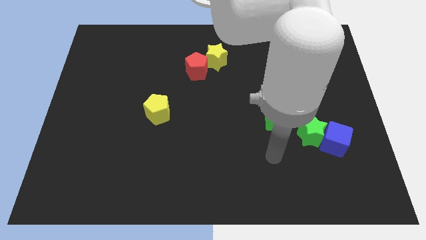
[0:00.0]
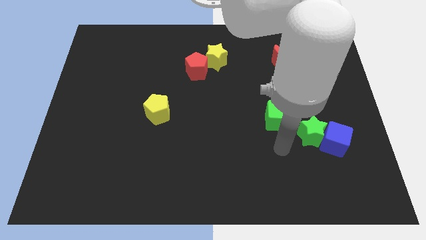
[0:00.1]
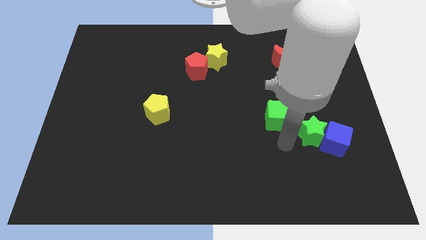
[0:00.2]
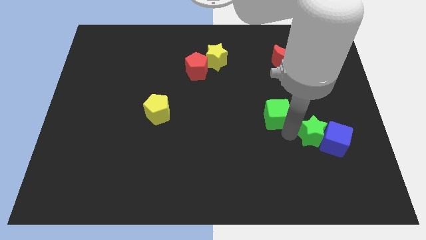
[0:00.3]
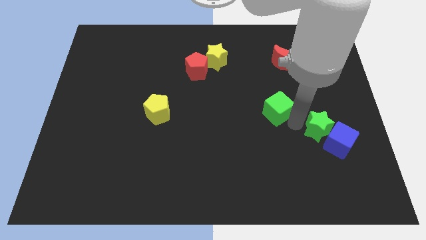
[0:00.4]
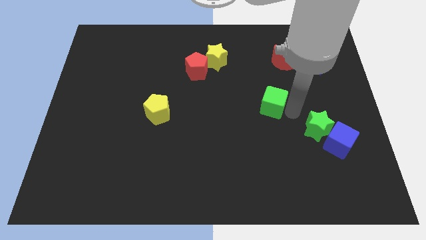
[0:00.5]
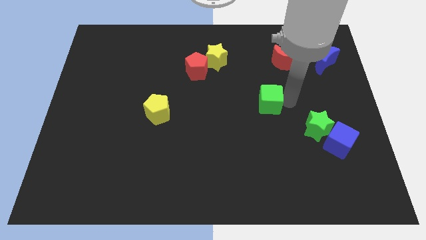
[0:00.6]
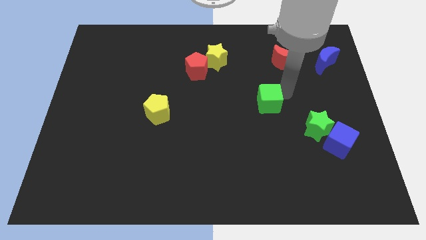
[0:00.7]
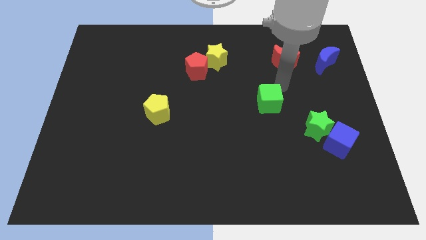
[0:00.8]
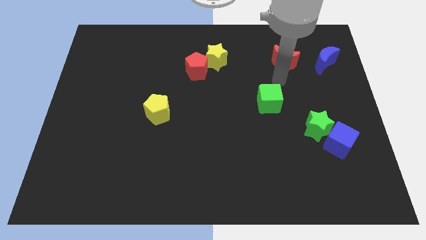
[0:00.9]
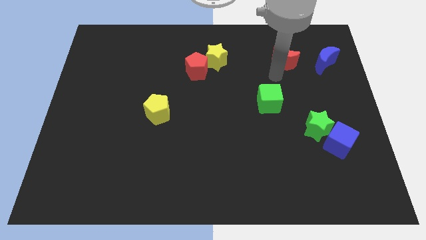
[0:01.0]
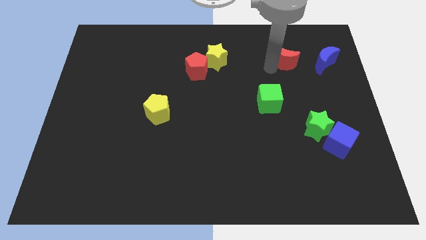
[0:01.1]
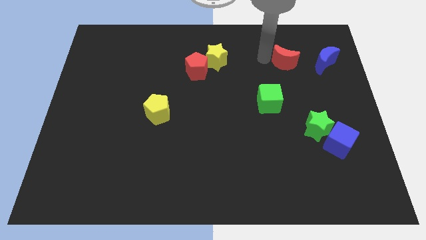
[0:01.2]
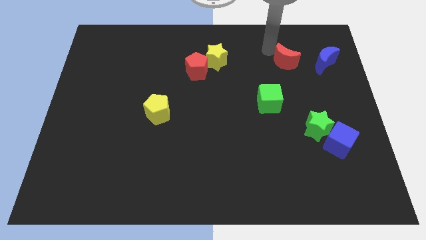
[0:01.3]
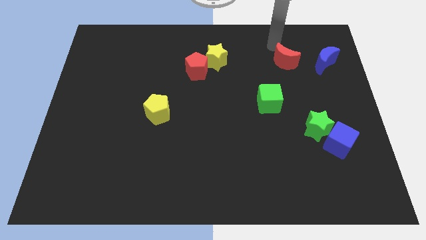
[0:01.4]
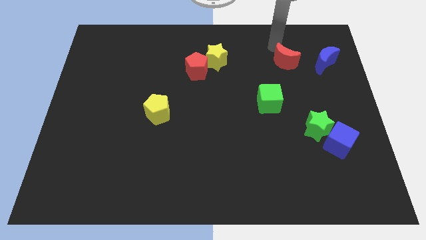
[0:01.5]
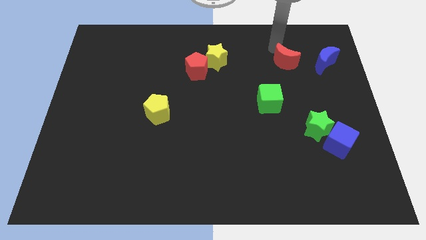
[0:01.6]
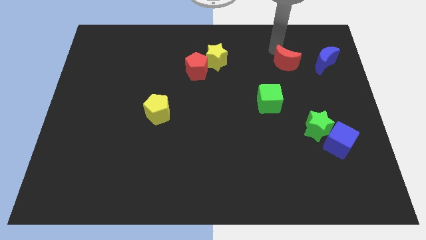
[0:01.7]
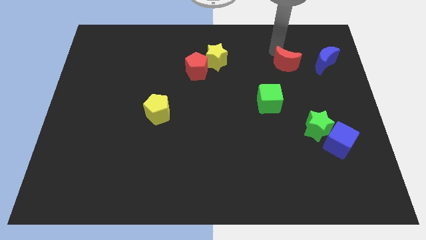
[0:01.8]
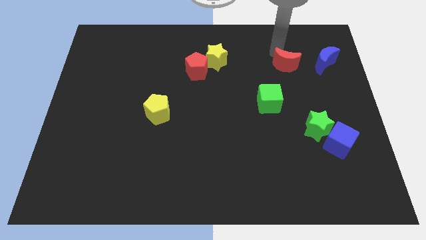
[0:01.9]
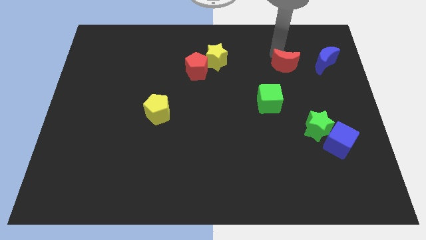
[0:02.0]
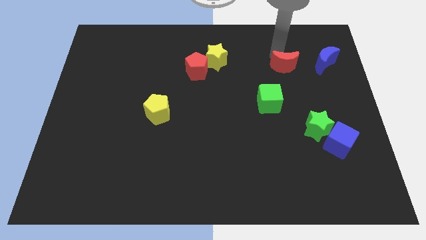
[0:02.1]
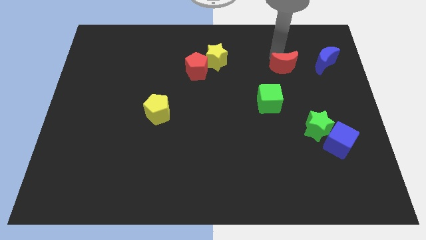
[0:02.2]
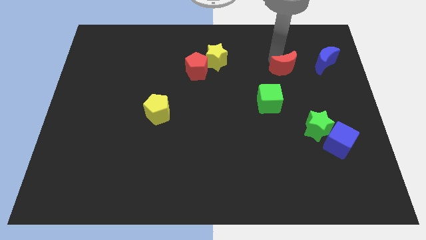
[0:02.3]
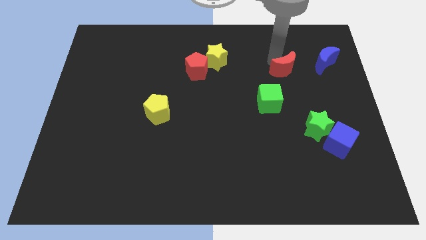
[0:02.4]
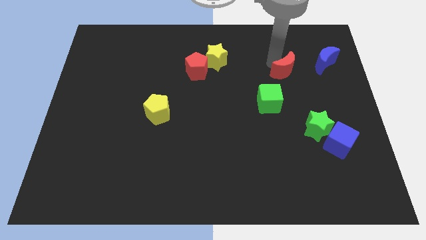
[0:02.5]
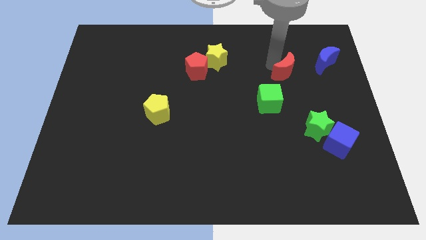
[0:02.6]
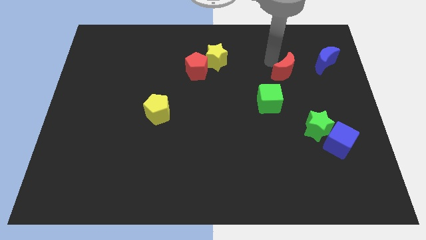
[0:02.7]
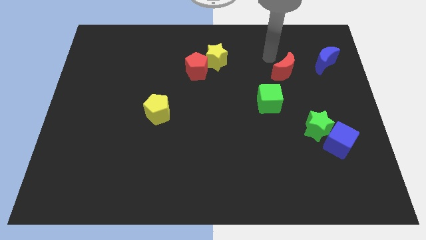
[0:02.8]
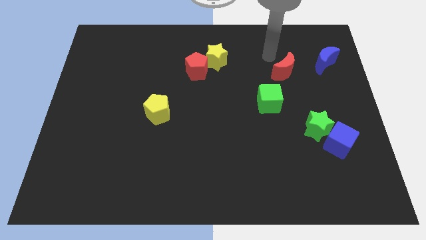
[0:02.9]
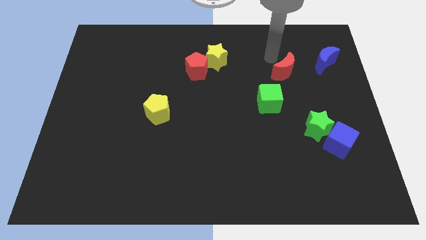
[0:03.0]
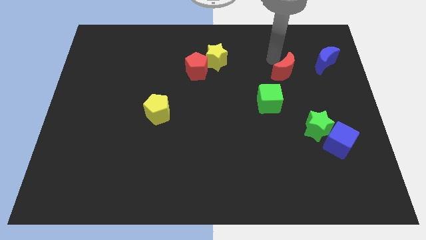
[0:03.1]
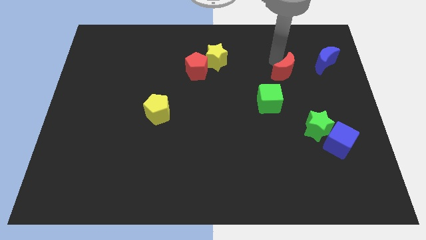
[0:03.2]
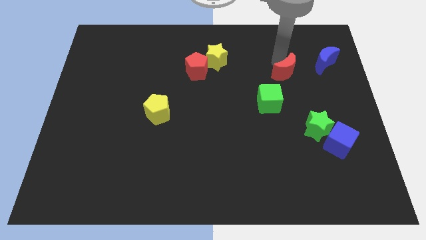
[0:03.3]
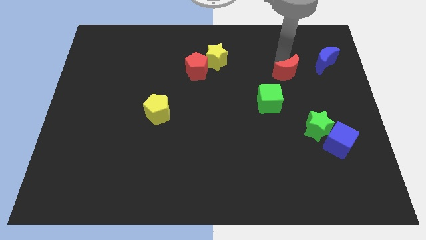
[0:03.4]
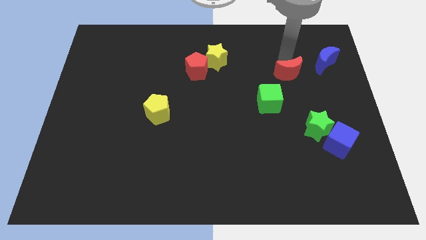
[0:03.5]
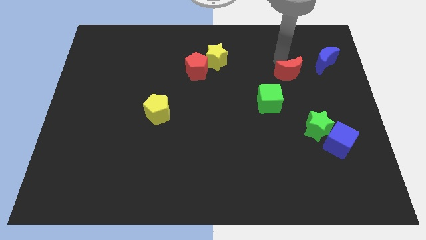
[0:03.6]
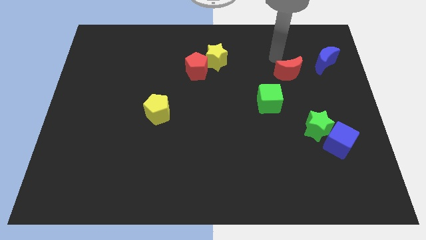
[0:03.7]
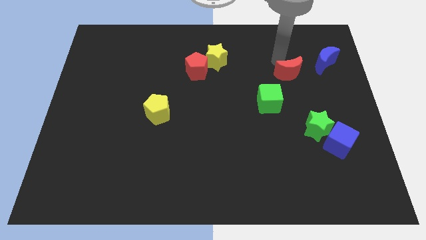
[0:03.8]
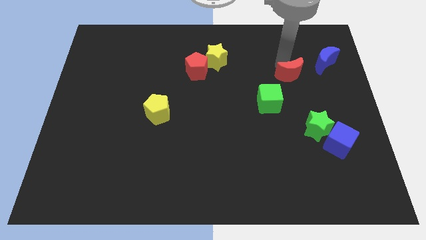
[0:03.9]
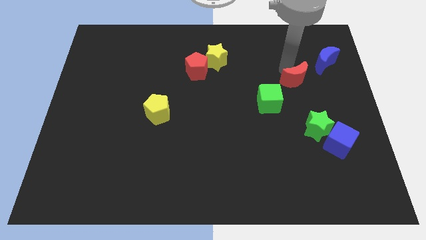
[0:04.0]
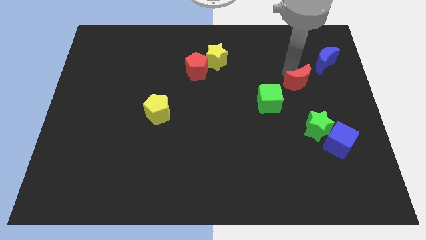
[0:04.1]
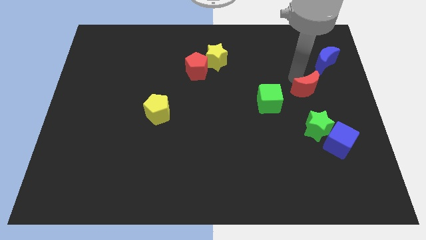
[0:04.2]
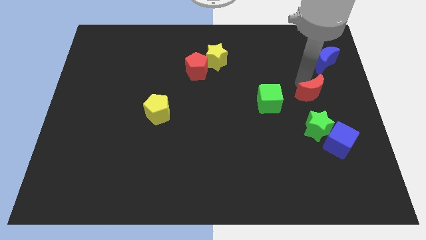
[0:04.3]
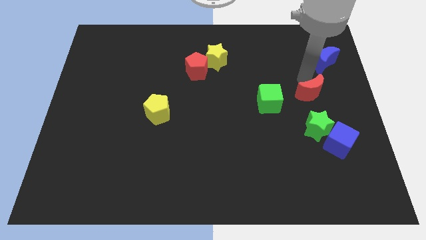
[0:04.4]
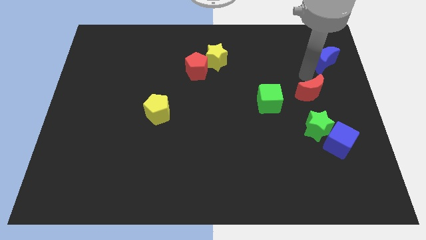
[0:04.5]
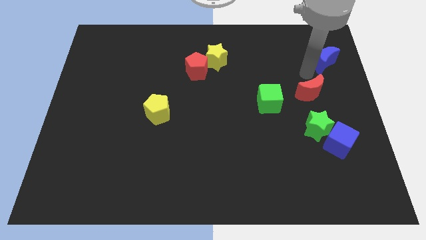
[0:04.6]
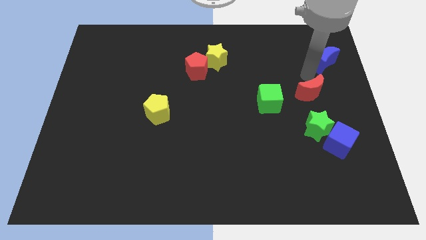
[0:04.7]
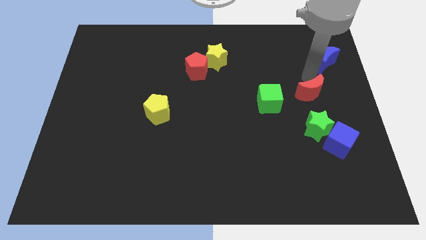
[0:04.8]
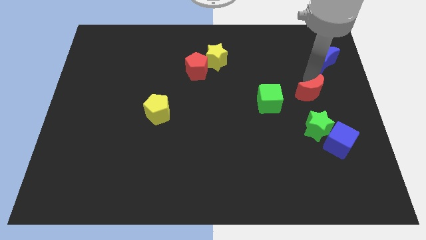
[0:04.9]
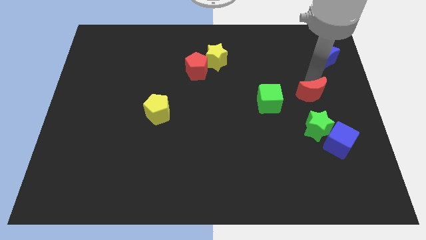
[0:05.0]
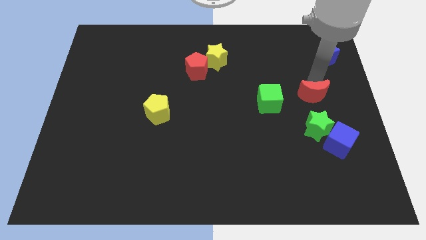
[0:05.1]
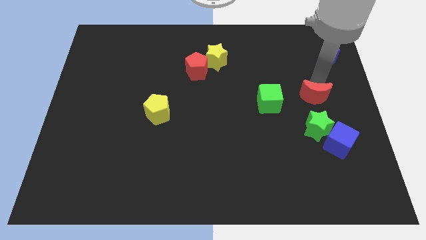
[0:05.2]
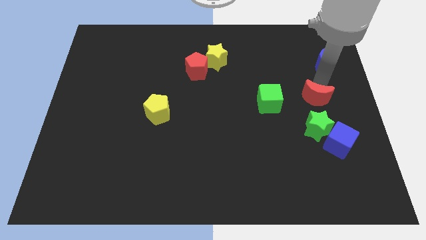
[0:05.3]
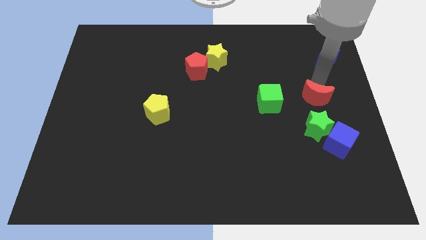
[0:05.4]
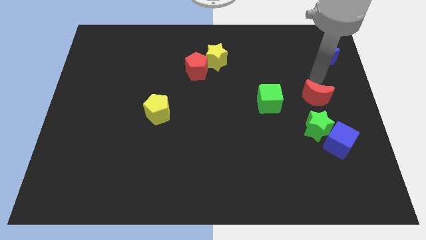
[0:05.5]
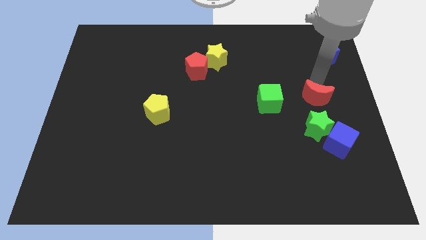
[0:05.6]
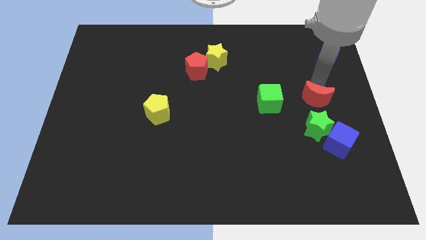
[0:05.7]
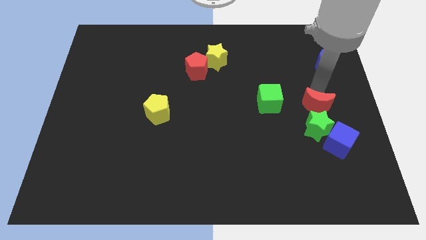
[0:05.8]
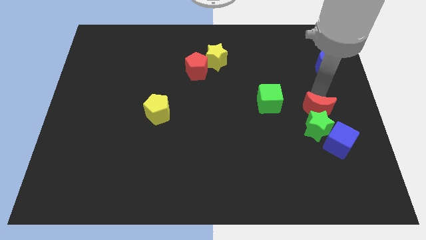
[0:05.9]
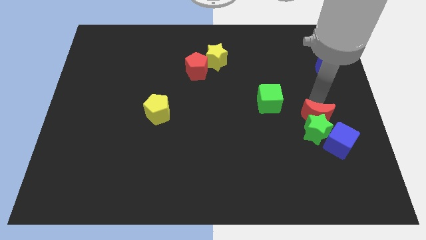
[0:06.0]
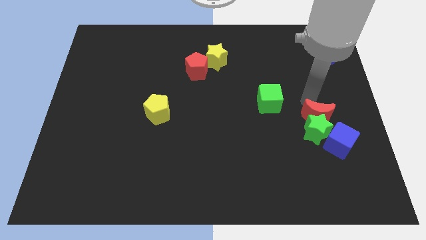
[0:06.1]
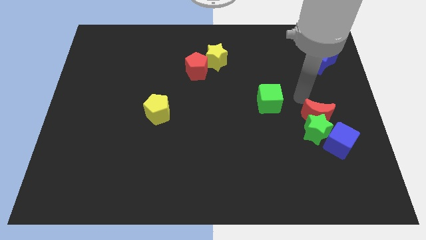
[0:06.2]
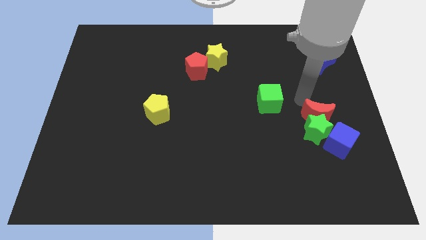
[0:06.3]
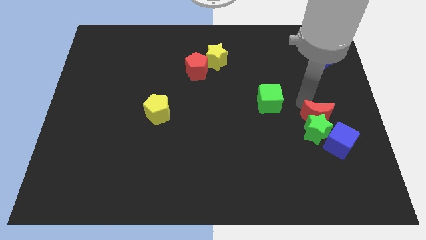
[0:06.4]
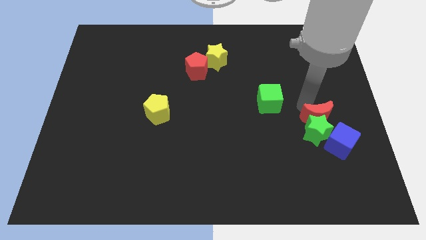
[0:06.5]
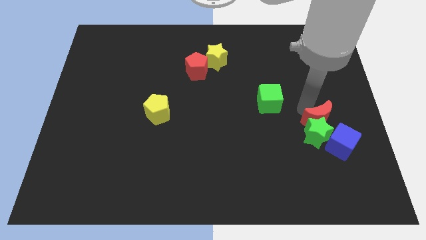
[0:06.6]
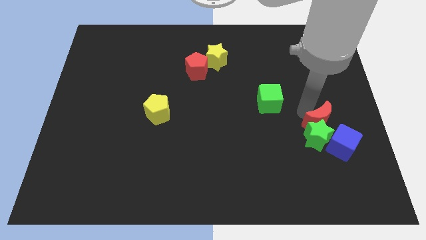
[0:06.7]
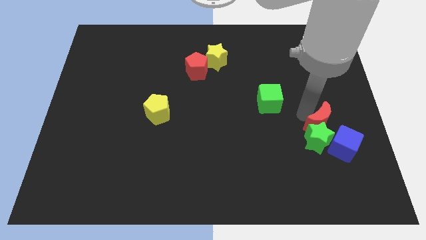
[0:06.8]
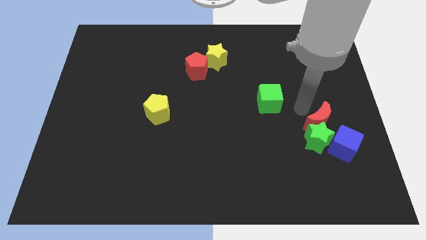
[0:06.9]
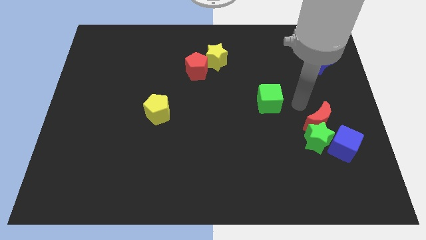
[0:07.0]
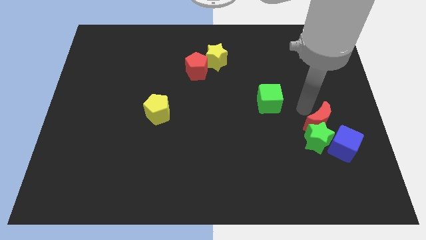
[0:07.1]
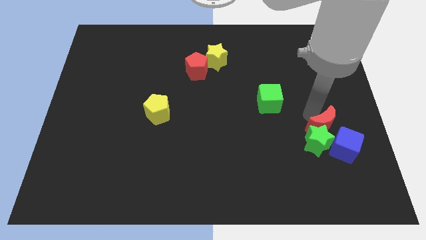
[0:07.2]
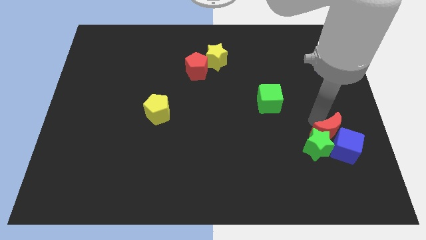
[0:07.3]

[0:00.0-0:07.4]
move the red moon close to the blue cube
